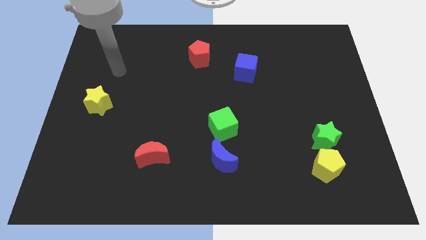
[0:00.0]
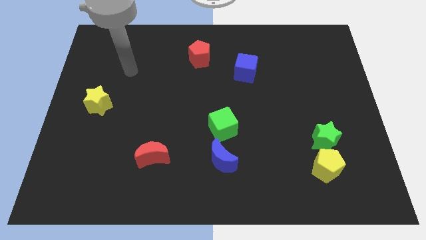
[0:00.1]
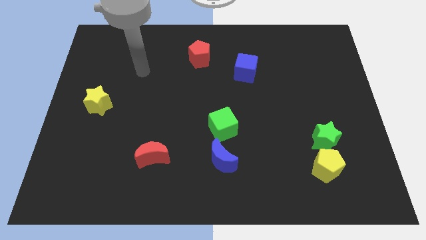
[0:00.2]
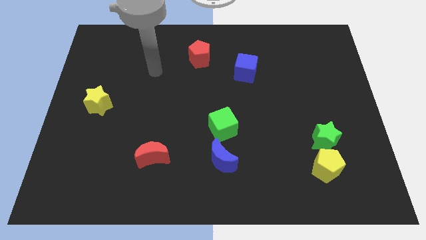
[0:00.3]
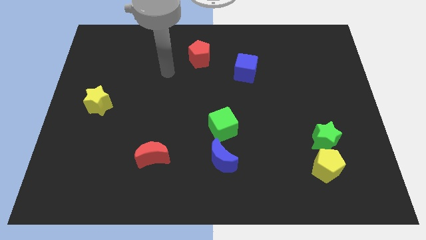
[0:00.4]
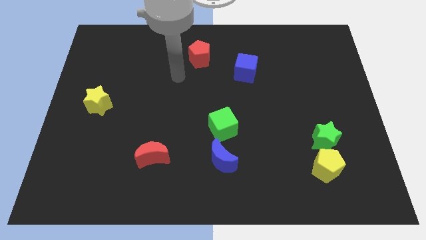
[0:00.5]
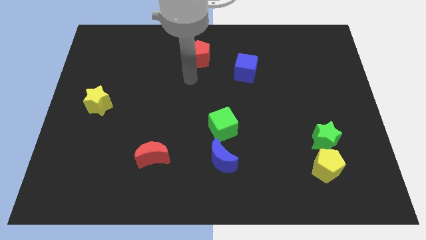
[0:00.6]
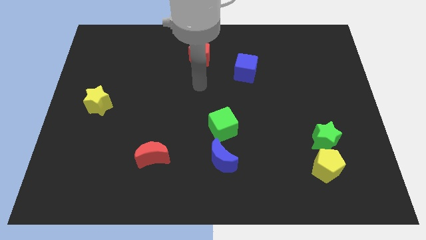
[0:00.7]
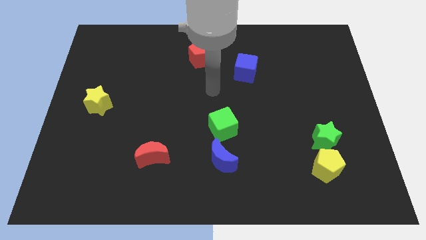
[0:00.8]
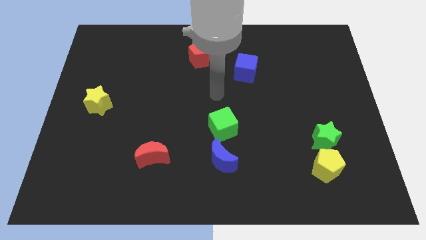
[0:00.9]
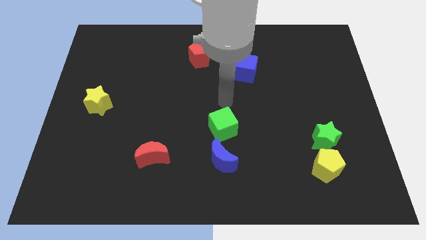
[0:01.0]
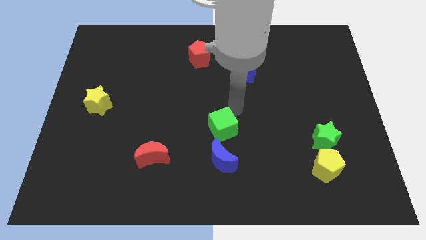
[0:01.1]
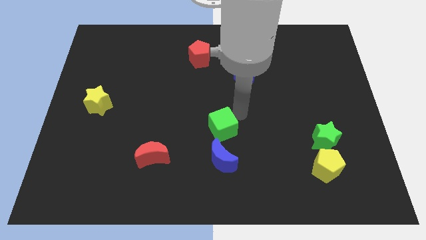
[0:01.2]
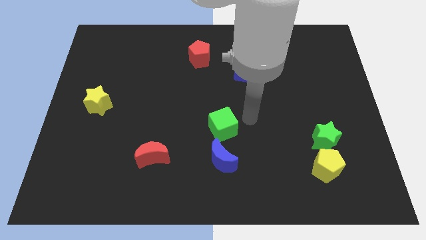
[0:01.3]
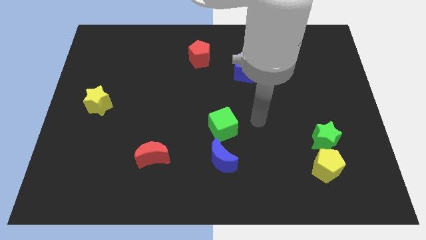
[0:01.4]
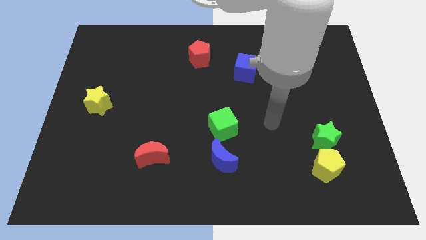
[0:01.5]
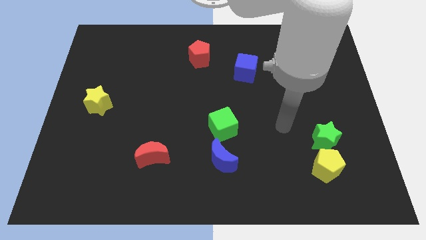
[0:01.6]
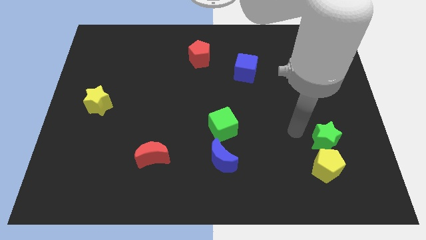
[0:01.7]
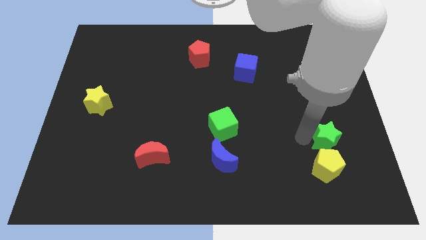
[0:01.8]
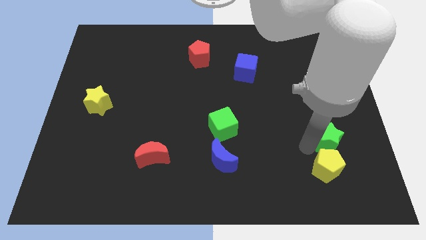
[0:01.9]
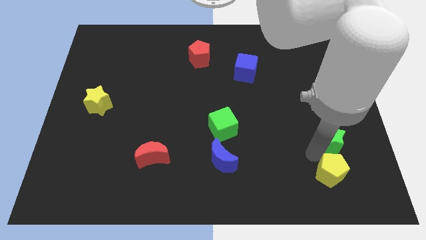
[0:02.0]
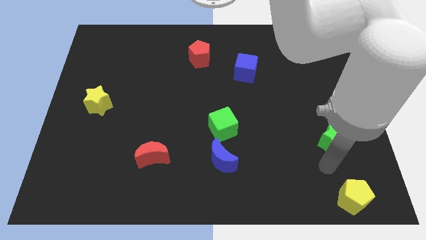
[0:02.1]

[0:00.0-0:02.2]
separate the green star from the yellow pentagon

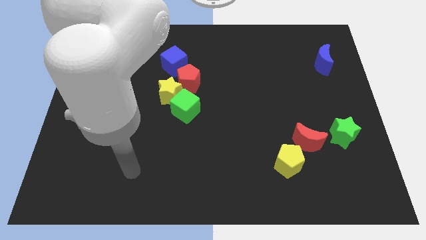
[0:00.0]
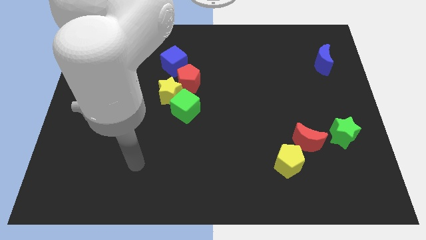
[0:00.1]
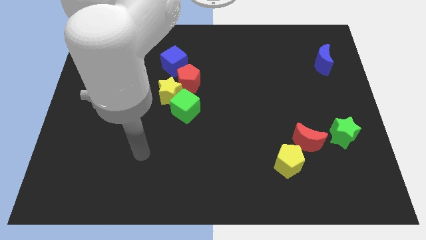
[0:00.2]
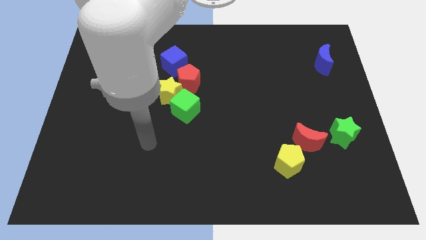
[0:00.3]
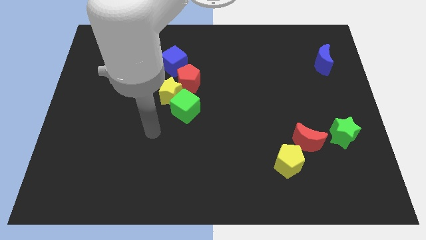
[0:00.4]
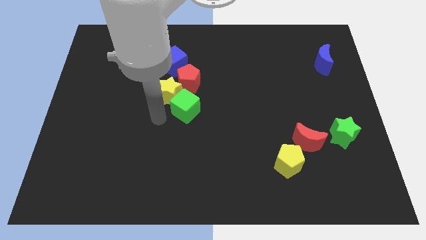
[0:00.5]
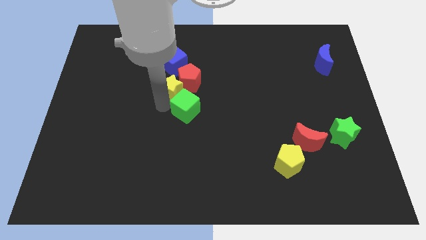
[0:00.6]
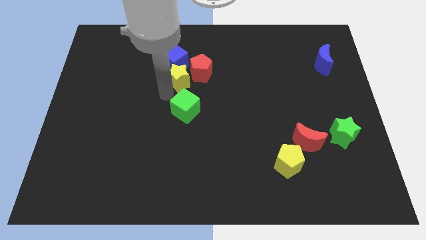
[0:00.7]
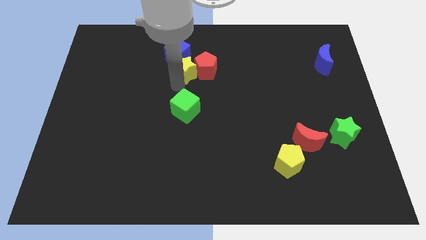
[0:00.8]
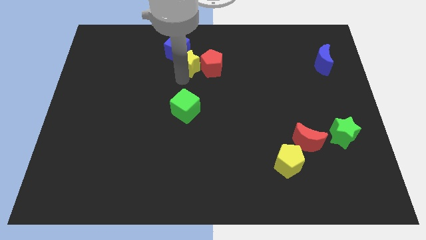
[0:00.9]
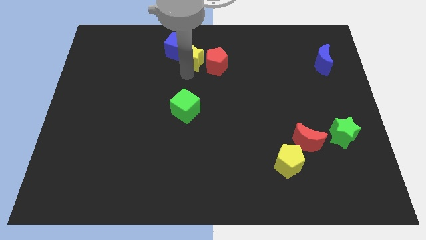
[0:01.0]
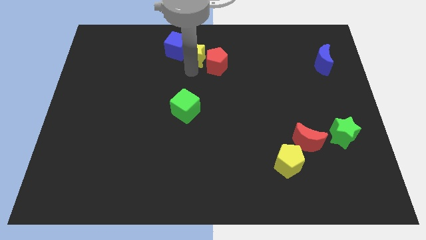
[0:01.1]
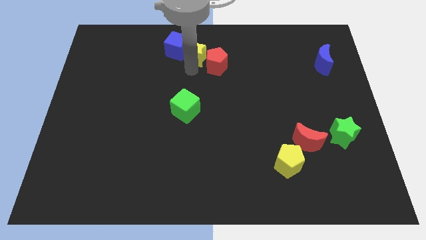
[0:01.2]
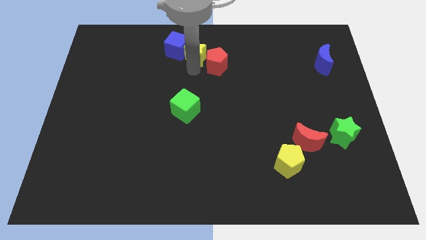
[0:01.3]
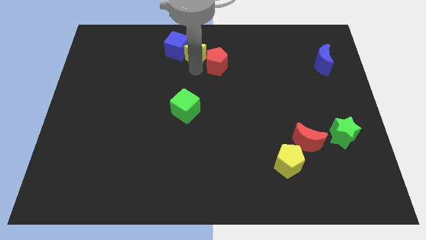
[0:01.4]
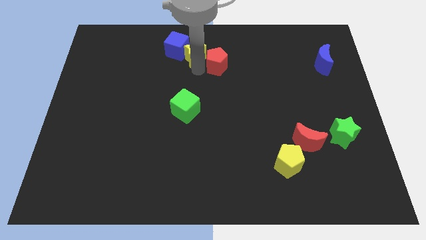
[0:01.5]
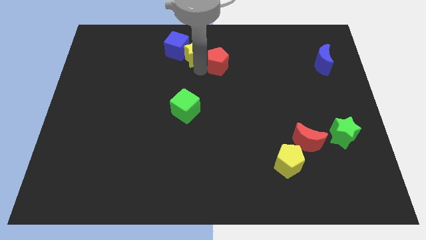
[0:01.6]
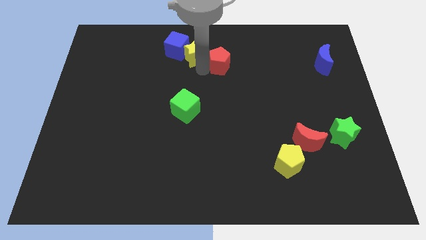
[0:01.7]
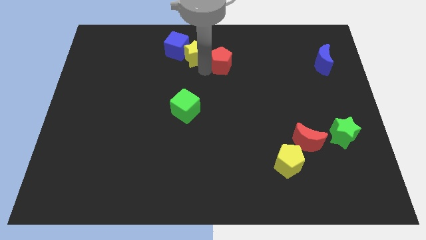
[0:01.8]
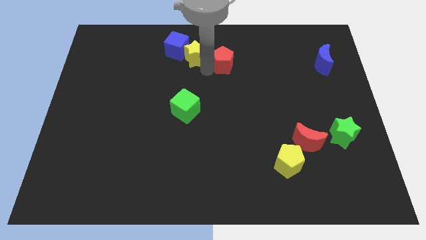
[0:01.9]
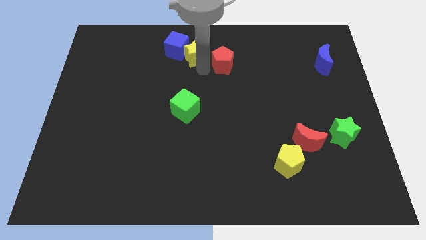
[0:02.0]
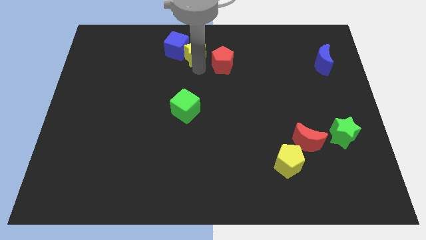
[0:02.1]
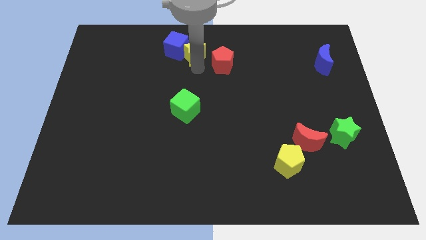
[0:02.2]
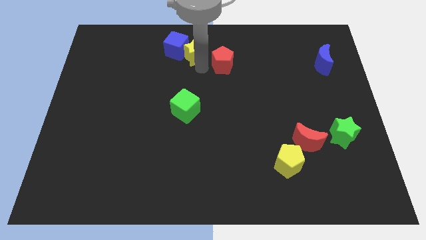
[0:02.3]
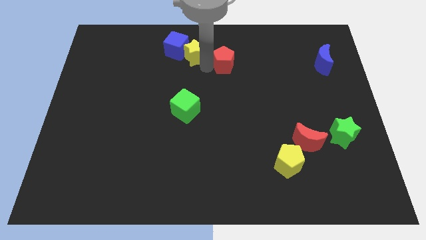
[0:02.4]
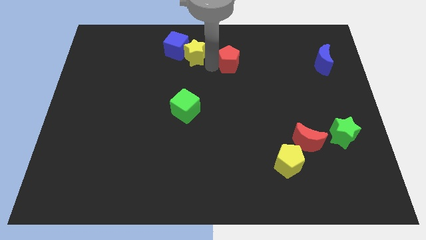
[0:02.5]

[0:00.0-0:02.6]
move the red pentagon away from the yellow star, blue cube, and green cube

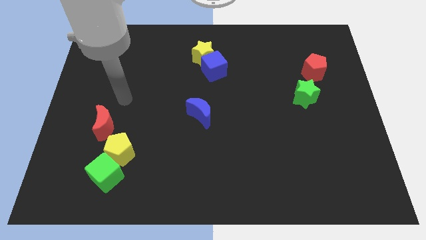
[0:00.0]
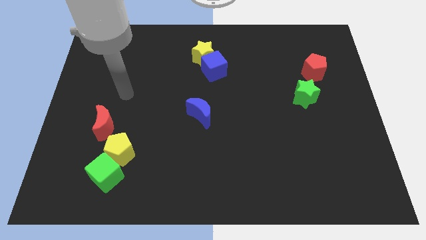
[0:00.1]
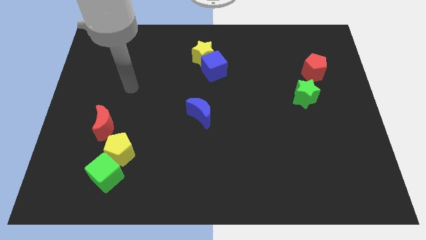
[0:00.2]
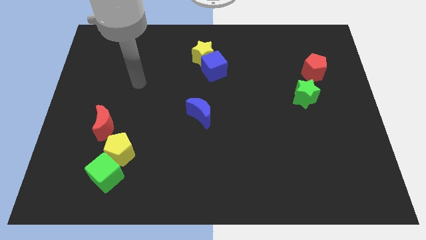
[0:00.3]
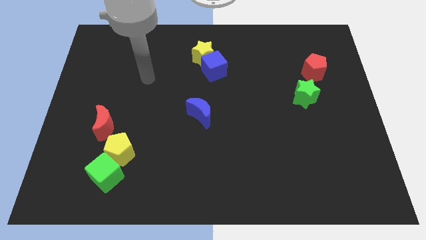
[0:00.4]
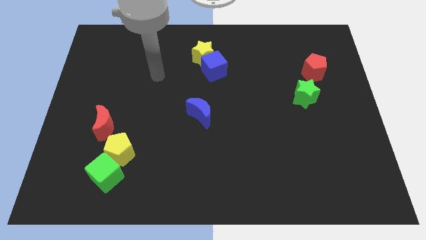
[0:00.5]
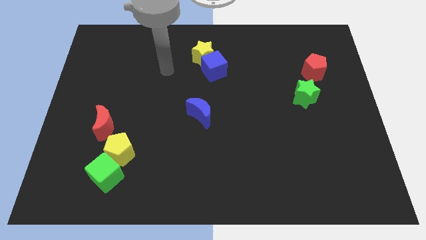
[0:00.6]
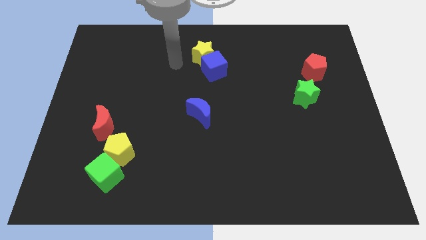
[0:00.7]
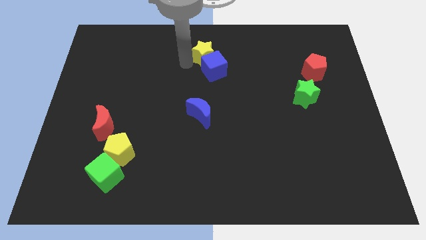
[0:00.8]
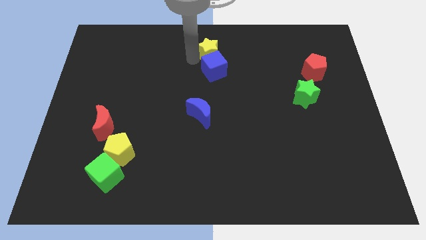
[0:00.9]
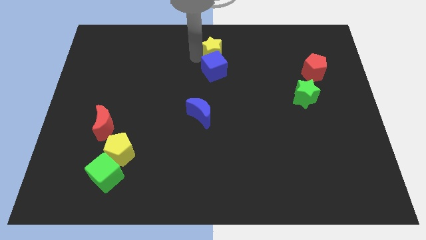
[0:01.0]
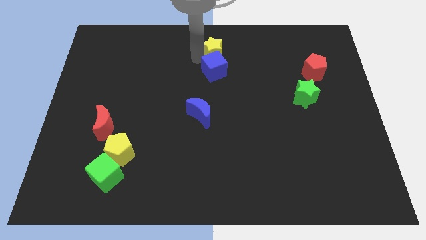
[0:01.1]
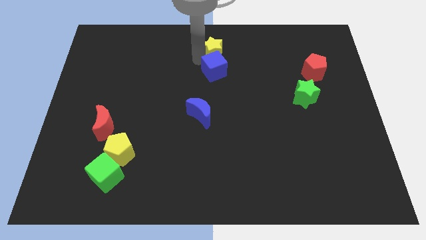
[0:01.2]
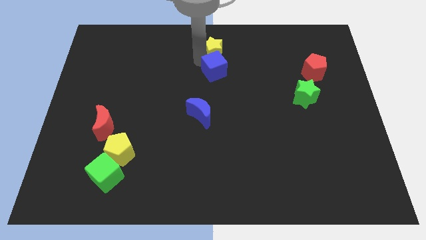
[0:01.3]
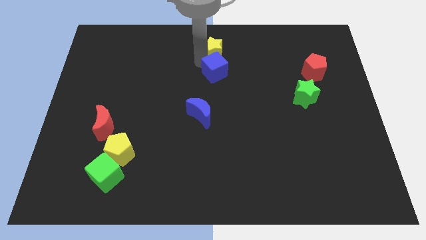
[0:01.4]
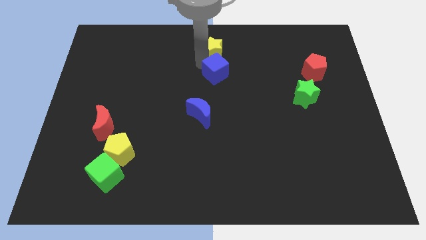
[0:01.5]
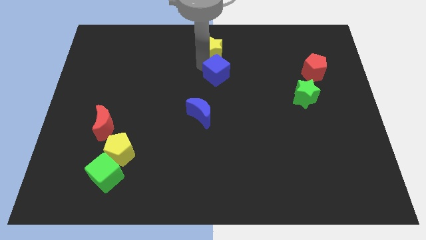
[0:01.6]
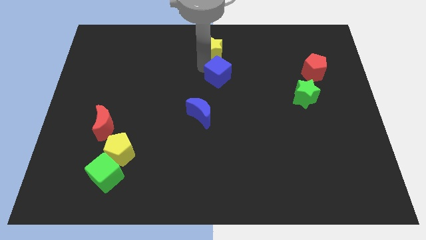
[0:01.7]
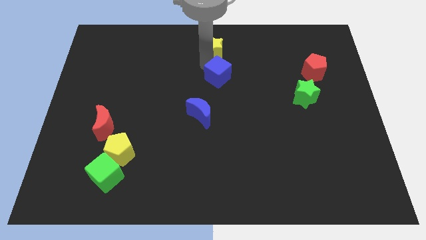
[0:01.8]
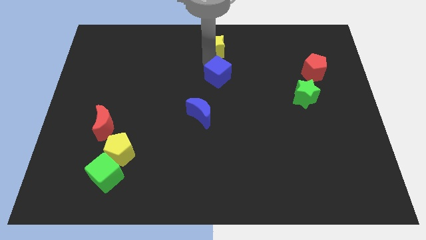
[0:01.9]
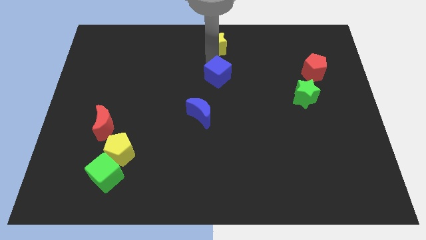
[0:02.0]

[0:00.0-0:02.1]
move the blue cube away from the yellow star

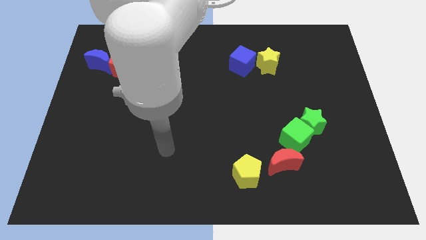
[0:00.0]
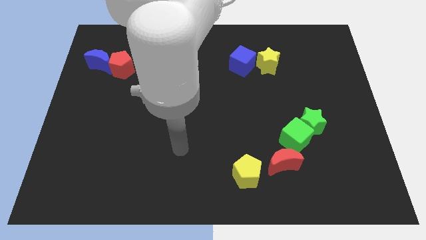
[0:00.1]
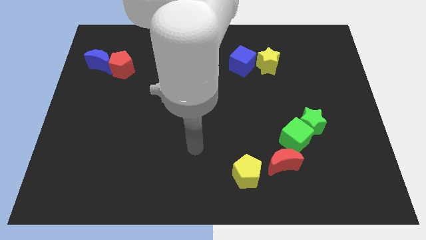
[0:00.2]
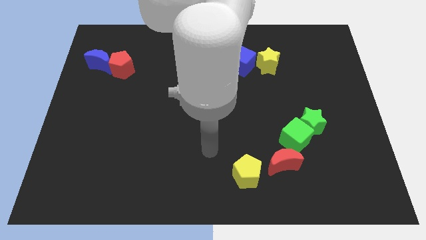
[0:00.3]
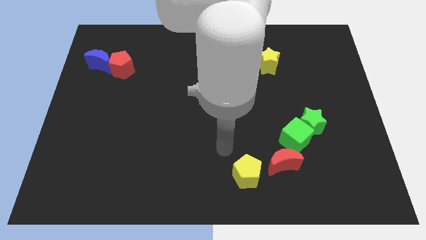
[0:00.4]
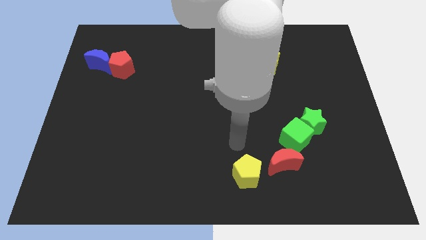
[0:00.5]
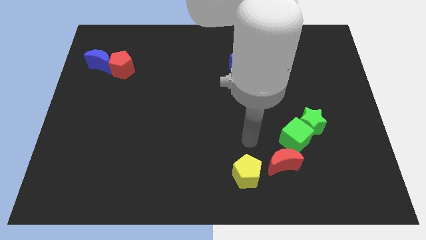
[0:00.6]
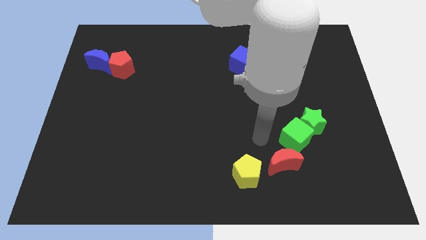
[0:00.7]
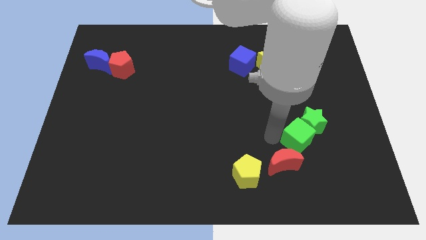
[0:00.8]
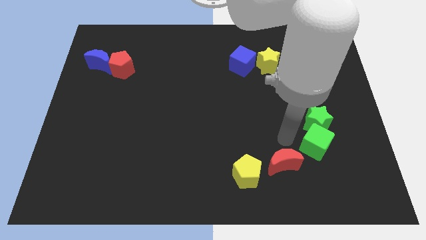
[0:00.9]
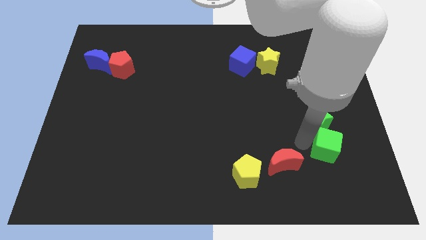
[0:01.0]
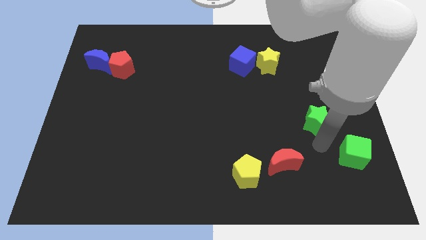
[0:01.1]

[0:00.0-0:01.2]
pull the green star apart from the green cube

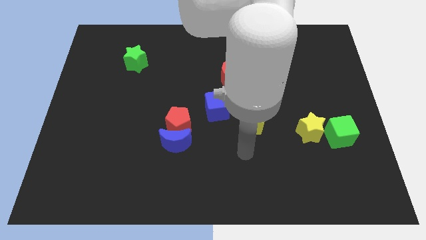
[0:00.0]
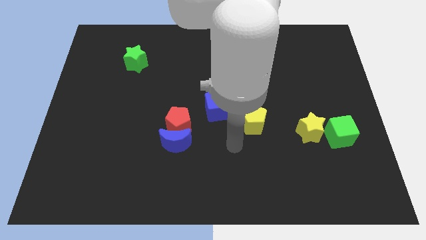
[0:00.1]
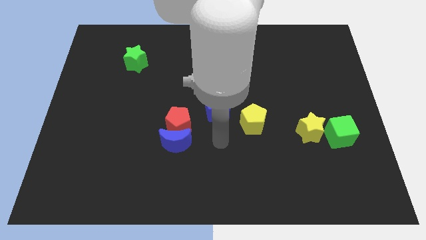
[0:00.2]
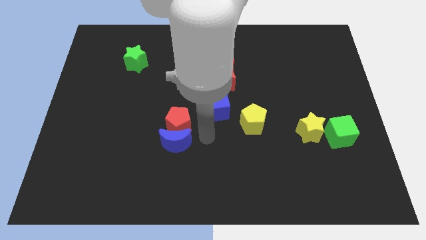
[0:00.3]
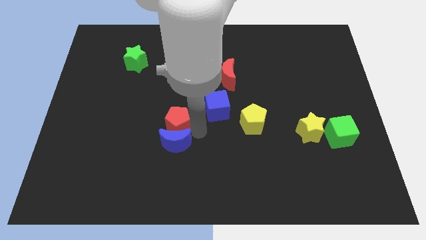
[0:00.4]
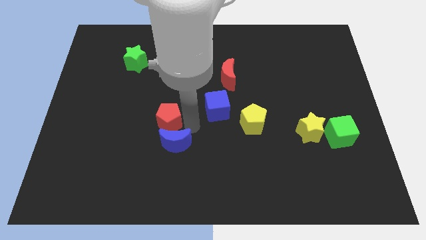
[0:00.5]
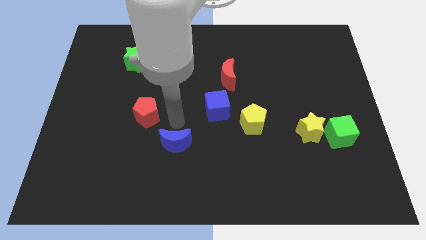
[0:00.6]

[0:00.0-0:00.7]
pull the blue moon apart from the red pentagon

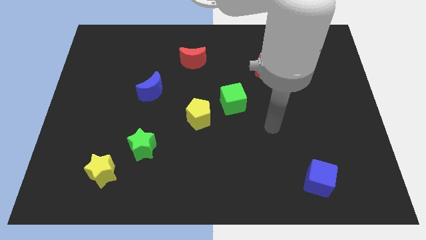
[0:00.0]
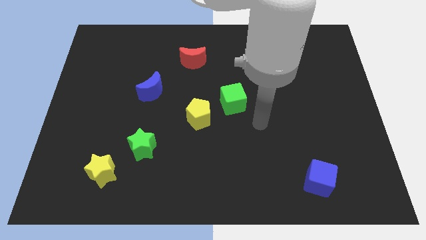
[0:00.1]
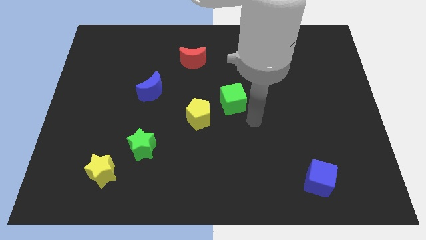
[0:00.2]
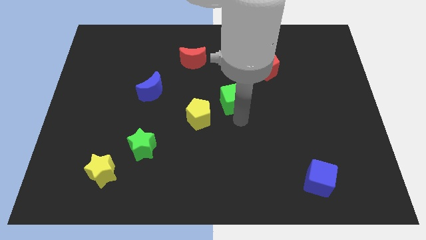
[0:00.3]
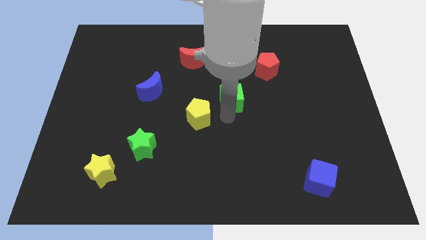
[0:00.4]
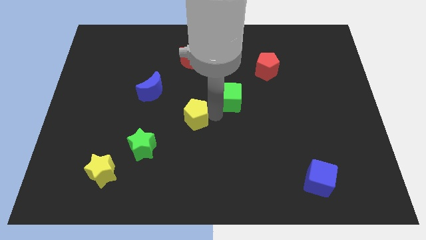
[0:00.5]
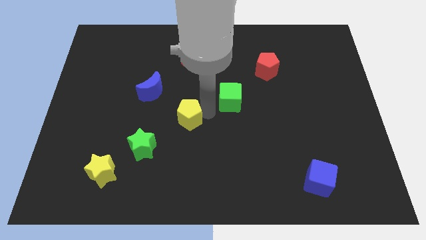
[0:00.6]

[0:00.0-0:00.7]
pull the green cube apart from the yellow pentagon
